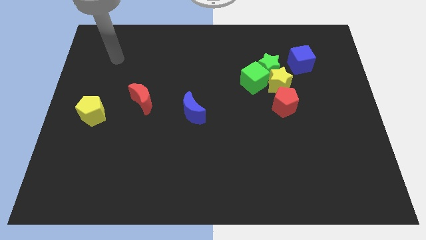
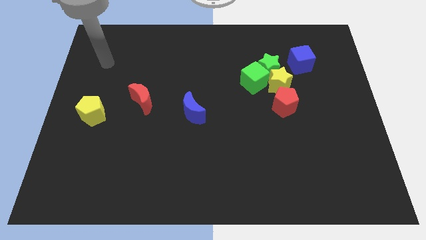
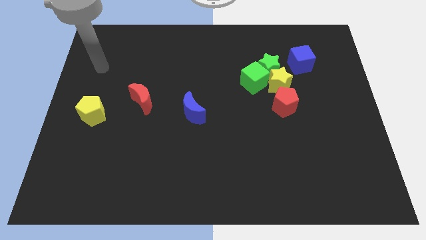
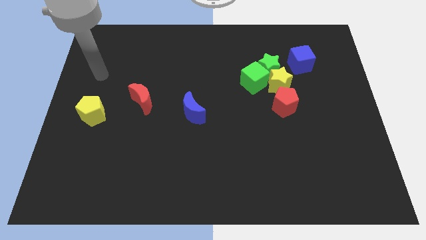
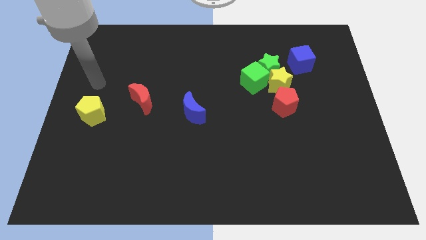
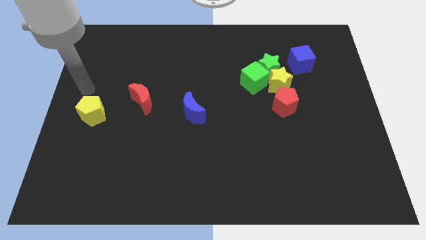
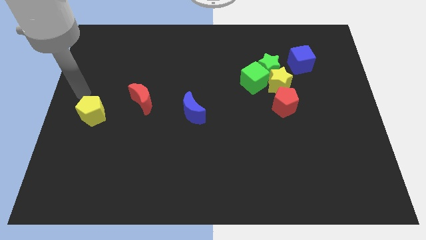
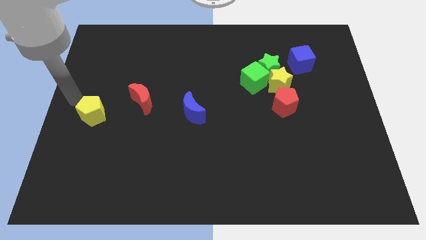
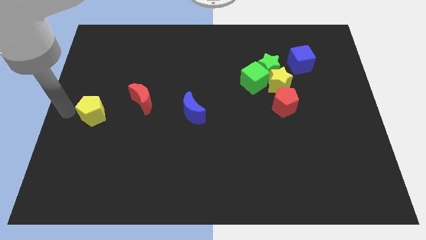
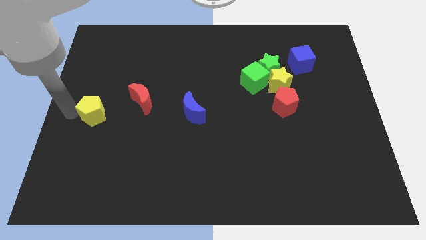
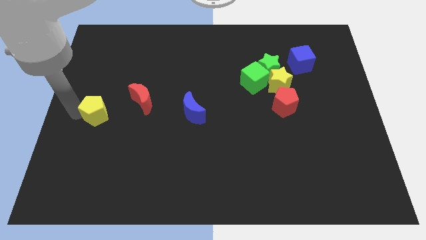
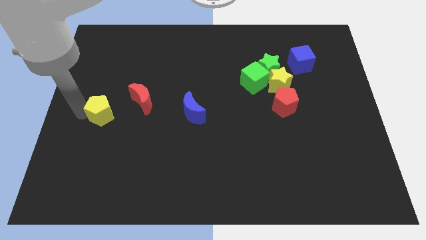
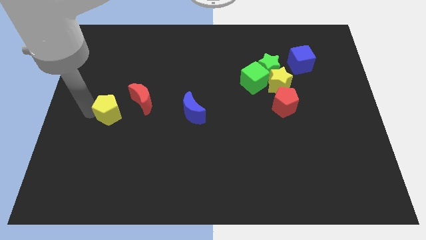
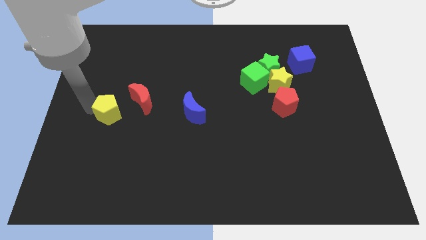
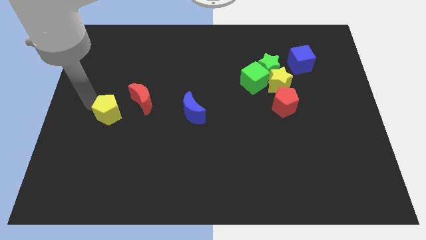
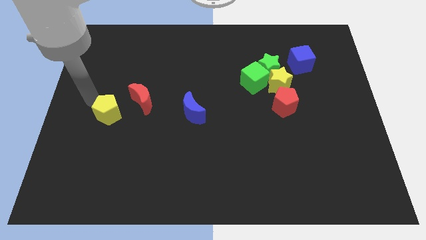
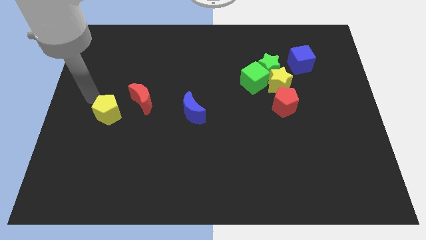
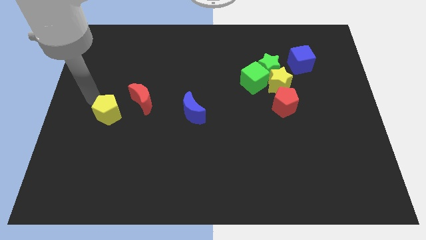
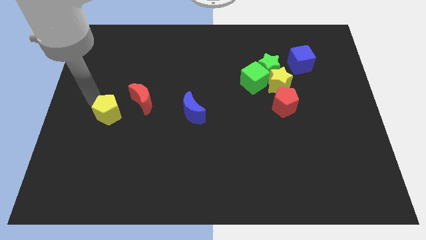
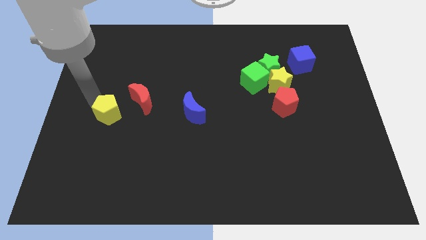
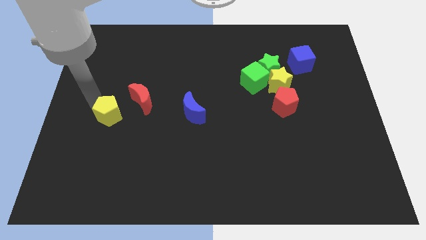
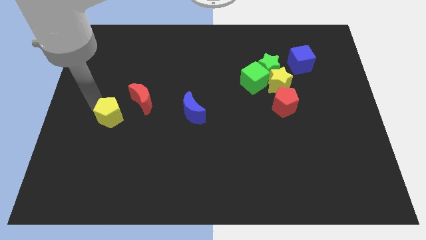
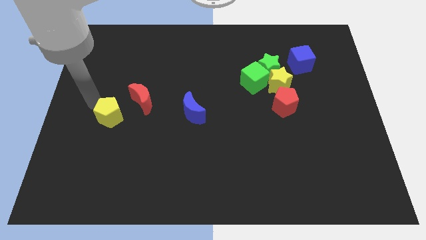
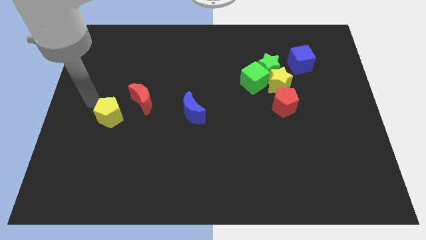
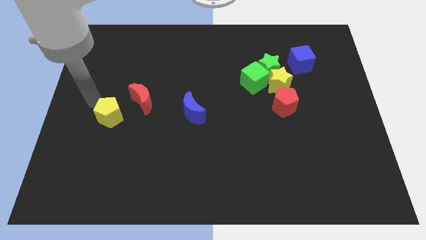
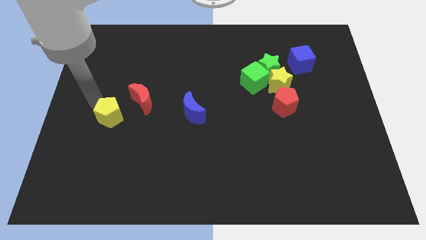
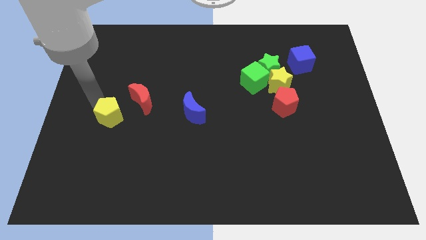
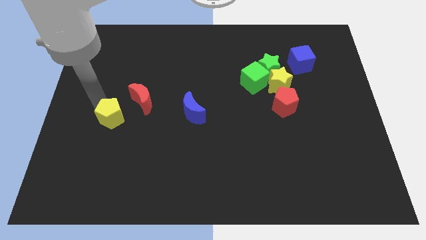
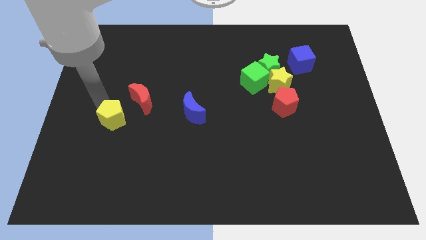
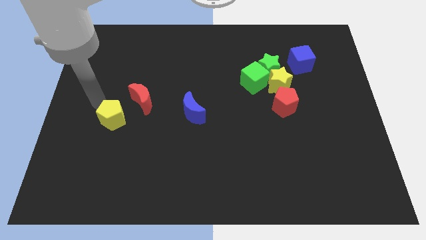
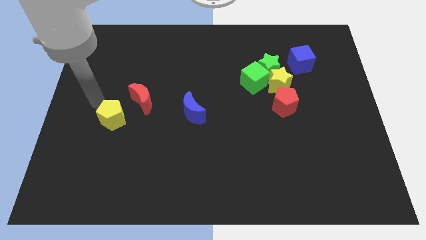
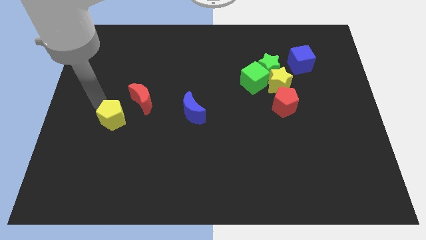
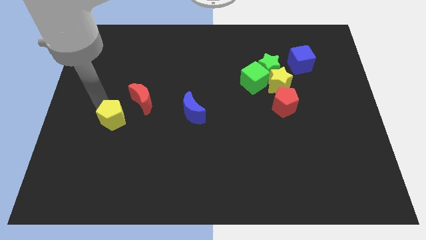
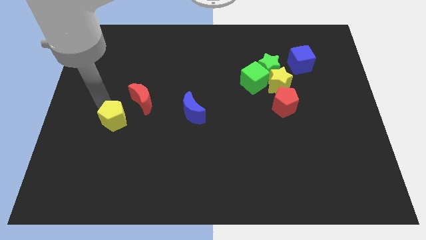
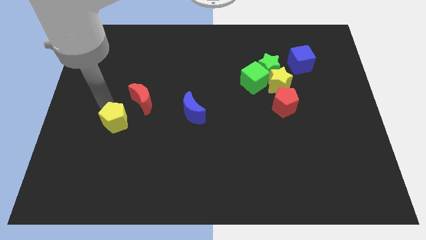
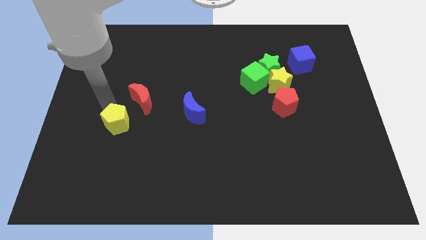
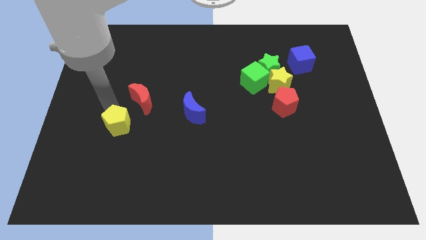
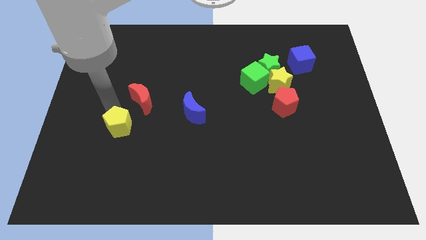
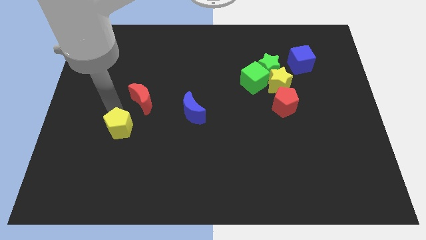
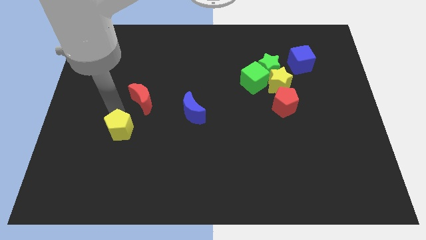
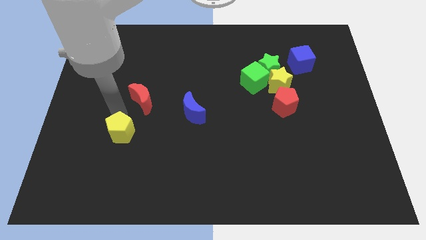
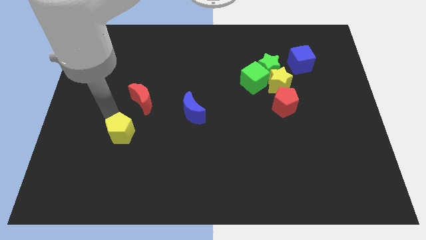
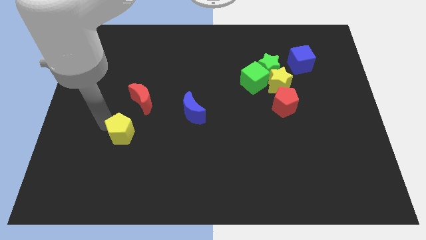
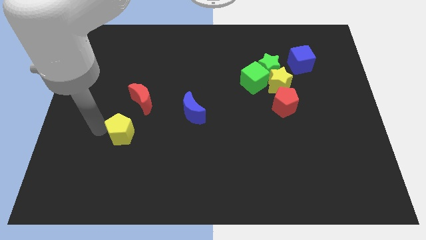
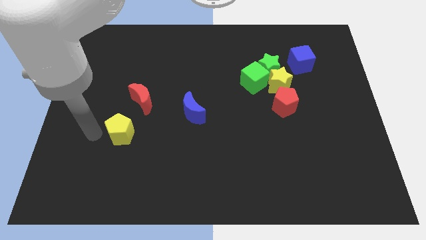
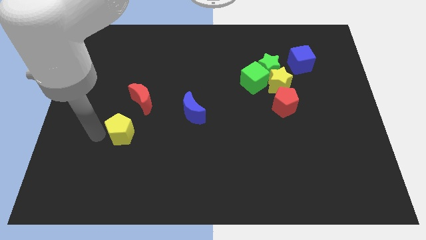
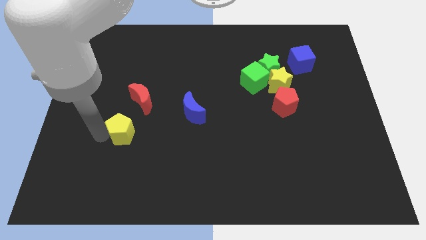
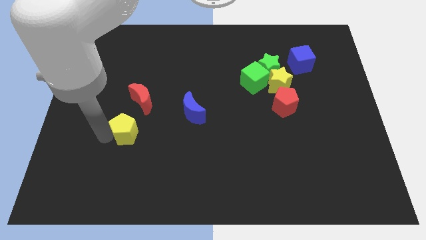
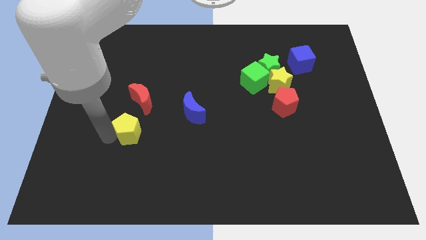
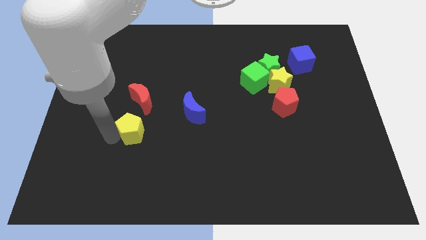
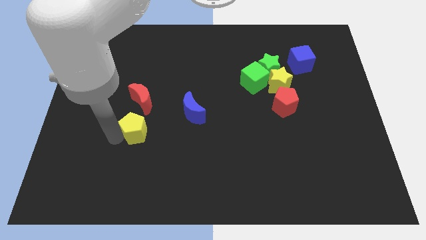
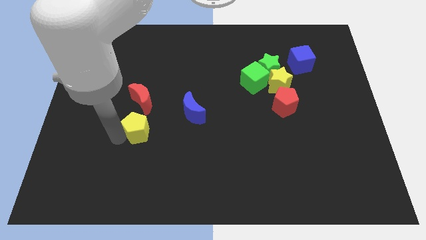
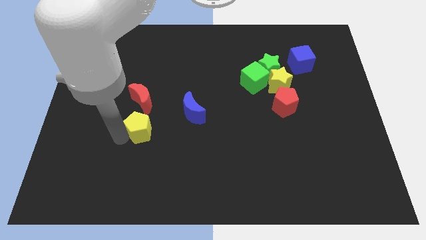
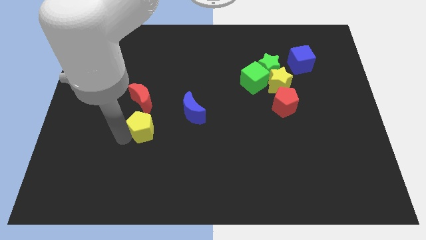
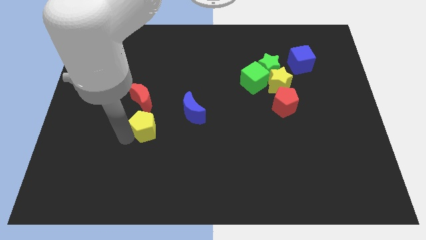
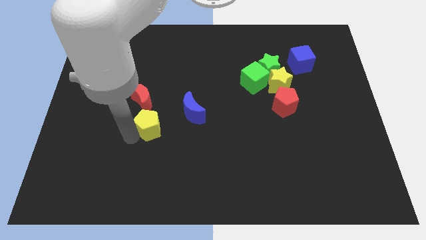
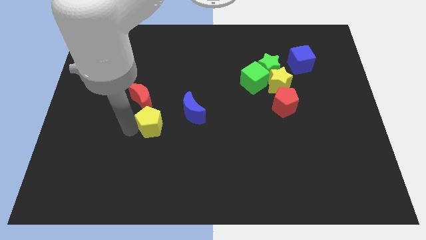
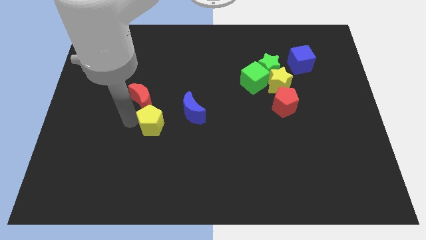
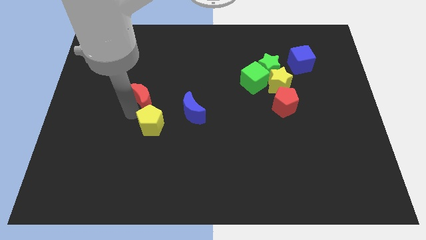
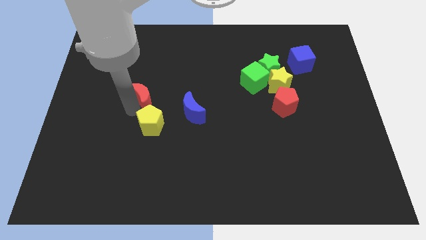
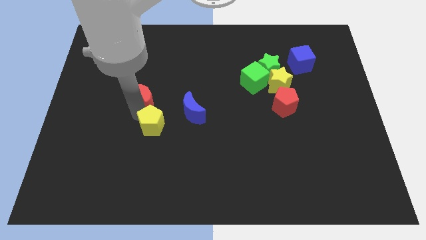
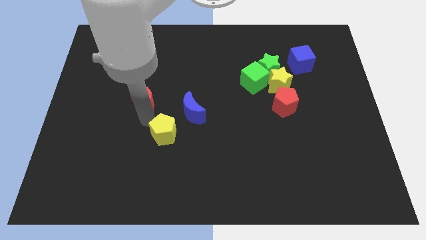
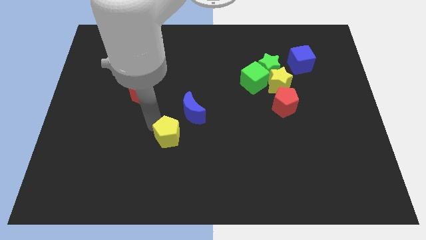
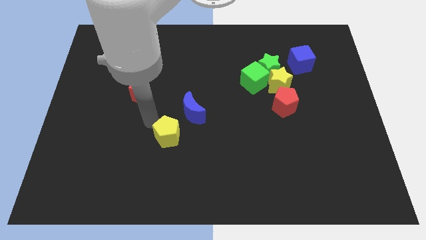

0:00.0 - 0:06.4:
put the yellow pentagon to the bottom side of the blue moon

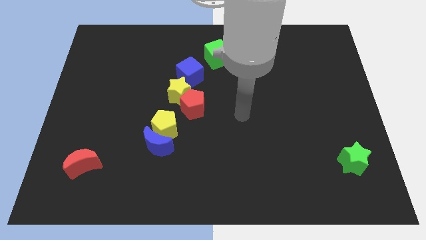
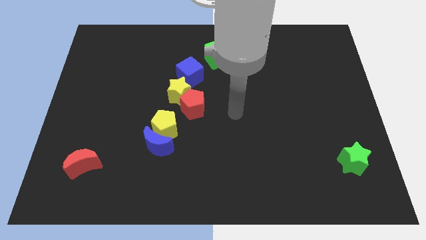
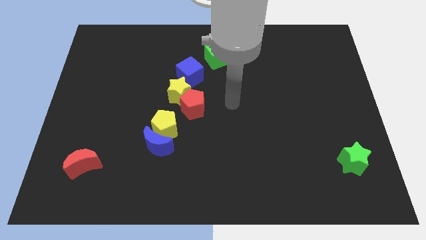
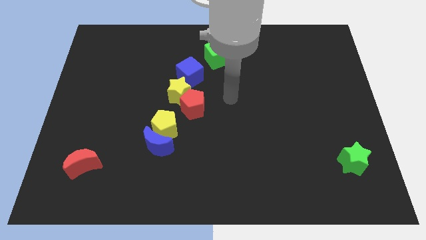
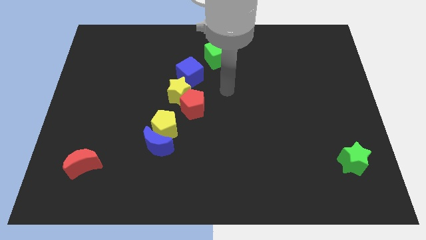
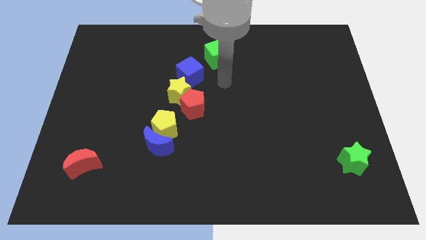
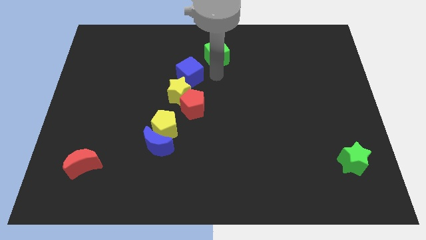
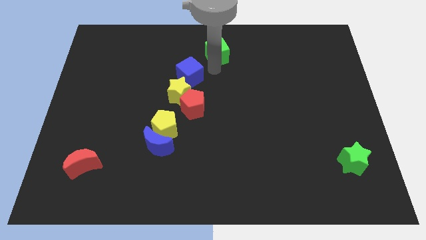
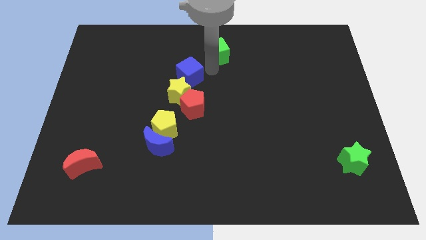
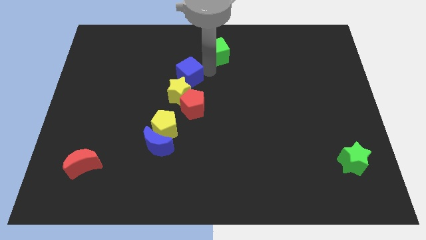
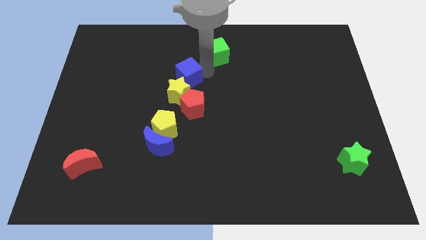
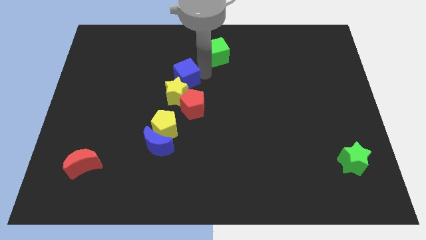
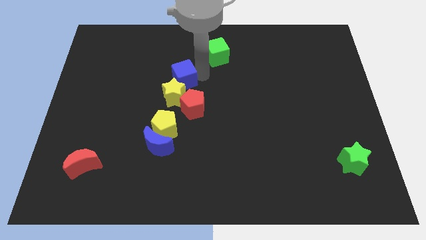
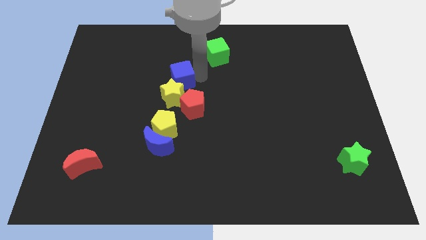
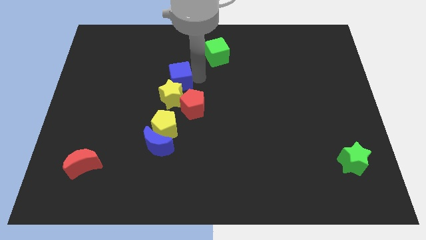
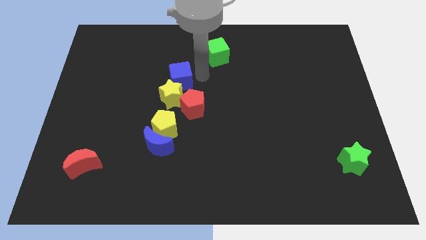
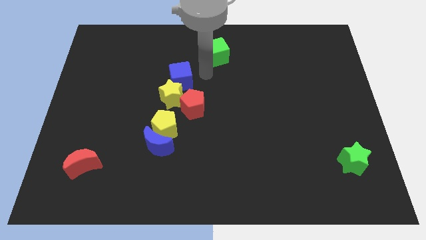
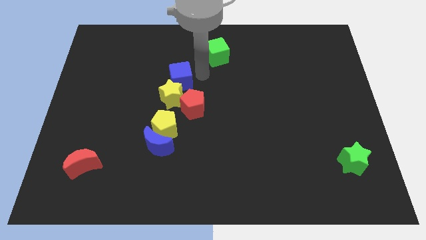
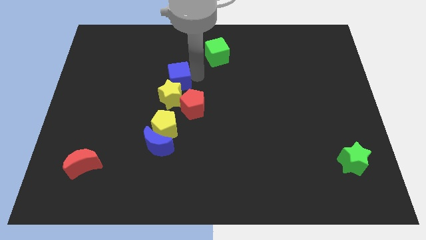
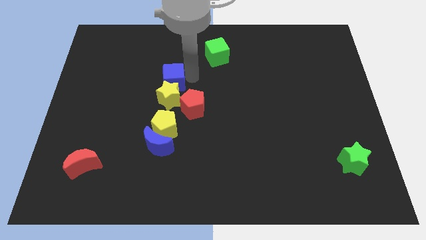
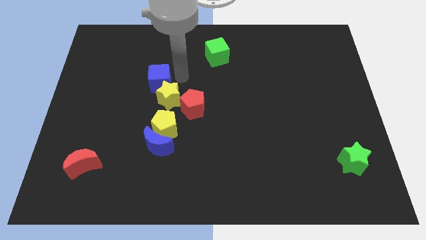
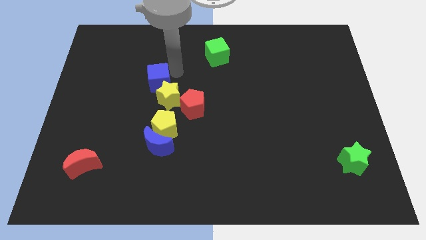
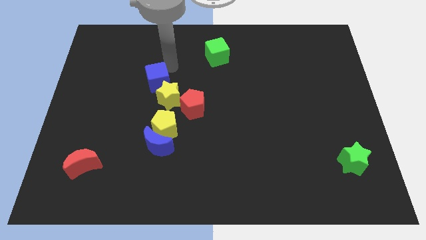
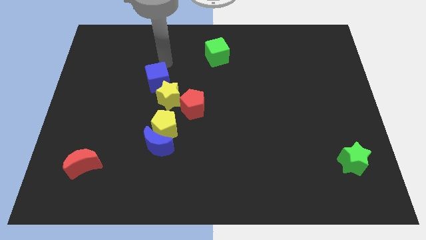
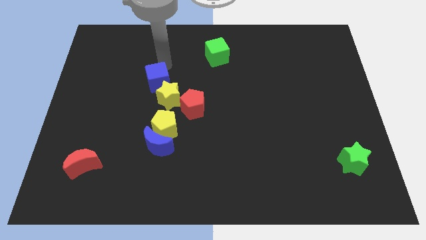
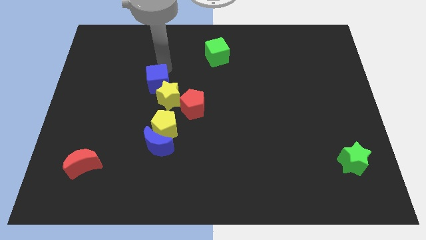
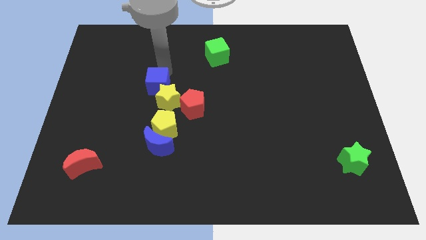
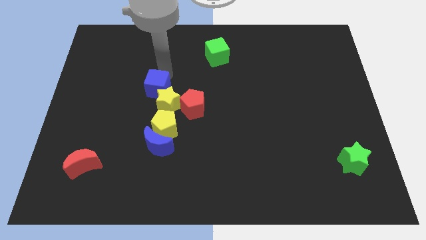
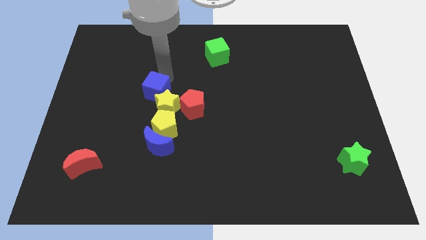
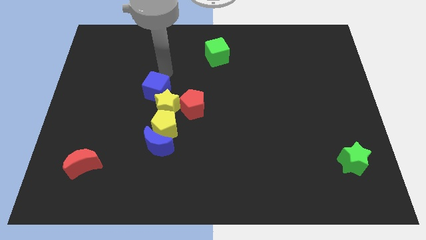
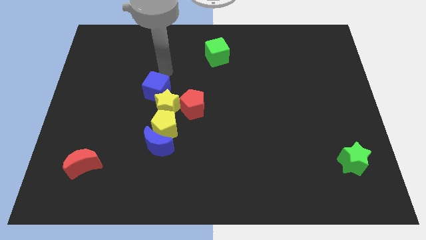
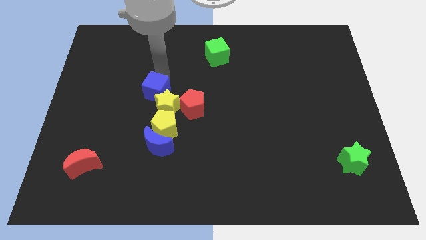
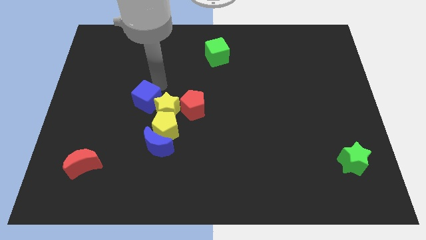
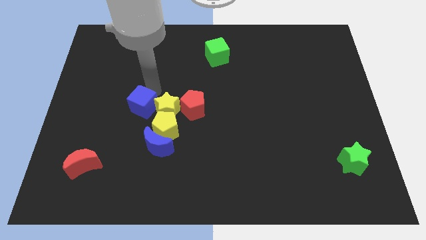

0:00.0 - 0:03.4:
push the blue cube diagonally down and to the left of the yellow star
